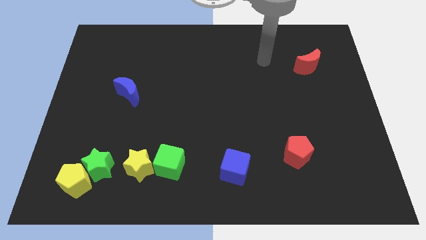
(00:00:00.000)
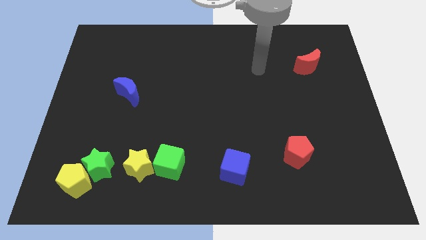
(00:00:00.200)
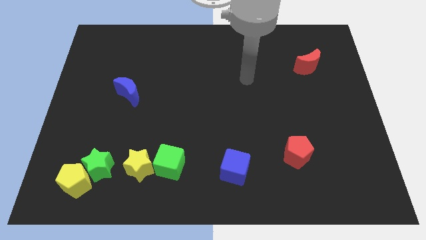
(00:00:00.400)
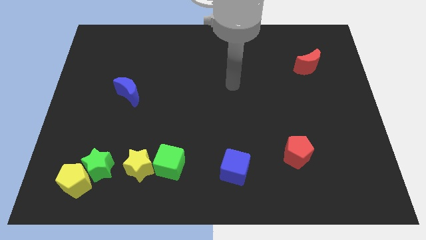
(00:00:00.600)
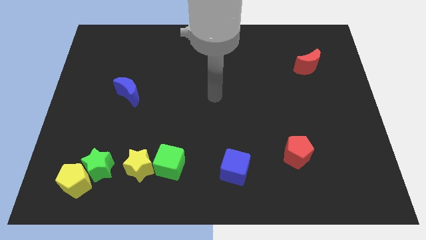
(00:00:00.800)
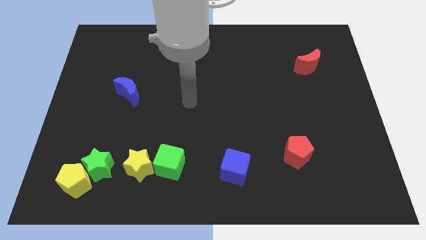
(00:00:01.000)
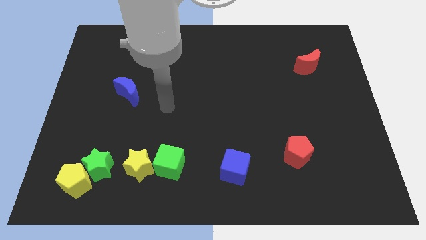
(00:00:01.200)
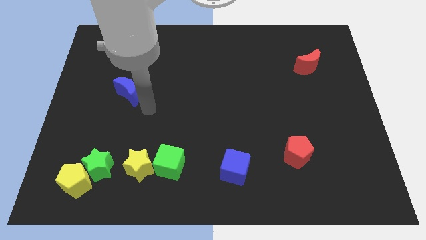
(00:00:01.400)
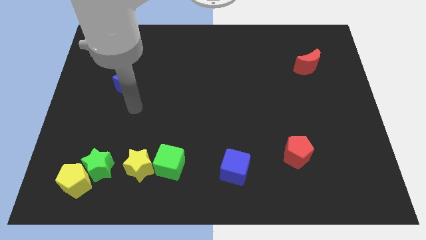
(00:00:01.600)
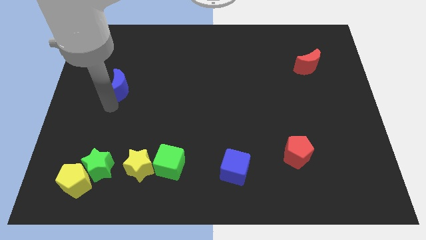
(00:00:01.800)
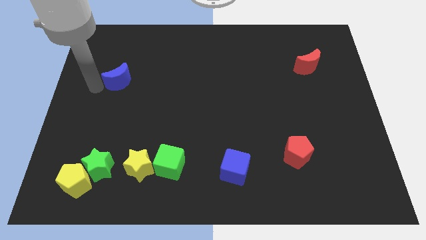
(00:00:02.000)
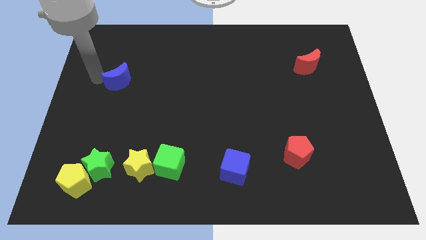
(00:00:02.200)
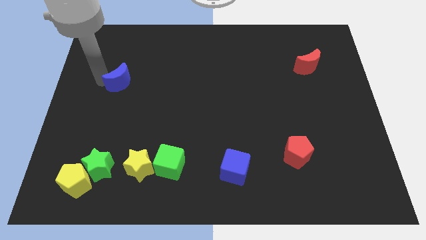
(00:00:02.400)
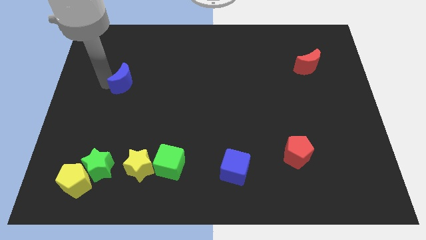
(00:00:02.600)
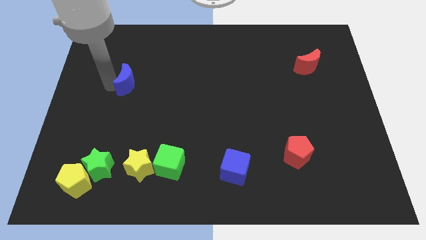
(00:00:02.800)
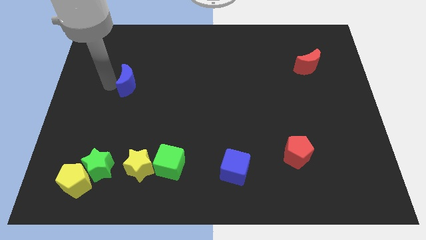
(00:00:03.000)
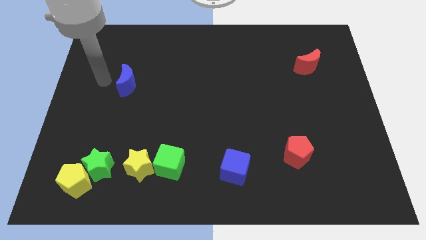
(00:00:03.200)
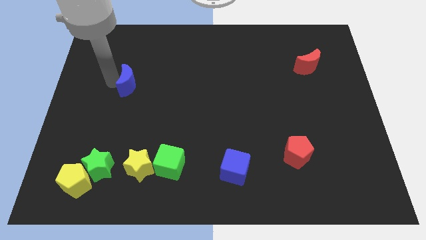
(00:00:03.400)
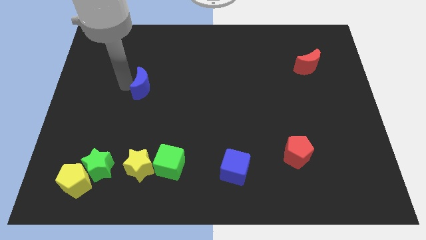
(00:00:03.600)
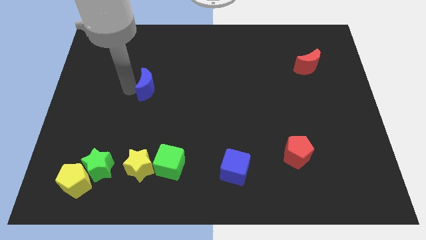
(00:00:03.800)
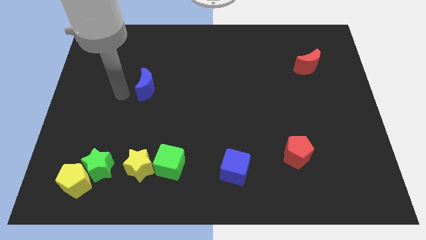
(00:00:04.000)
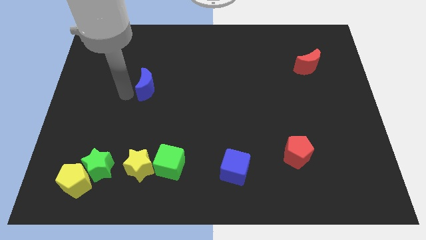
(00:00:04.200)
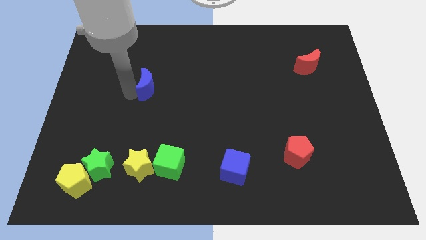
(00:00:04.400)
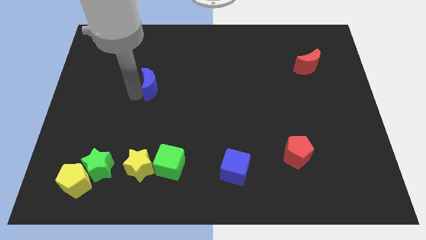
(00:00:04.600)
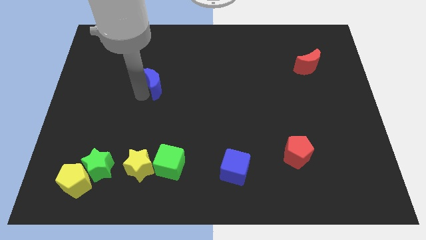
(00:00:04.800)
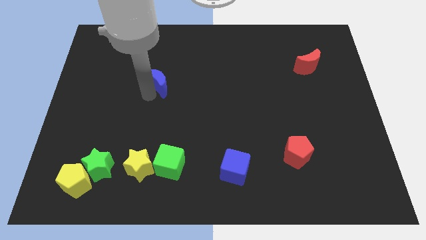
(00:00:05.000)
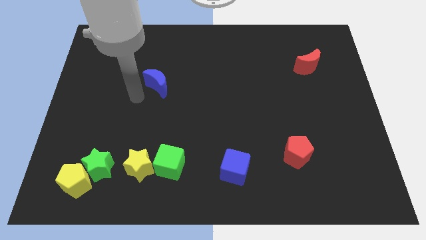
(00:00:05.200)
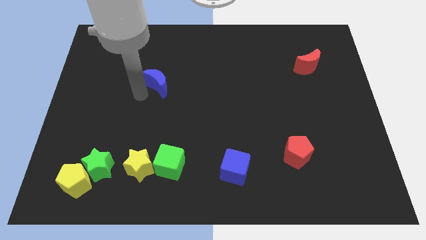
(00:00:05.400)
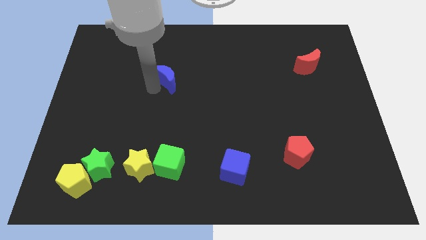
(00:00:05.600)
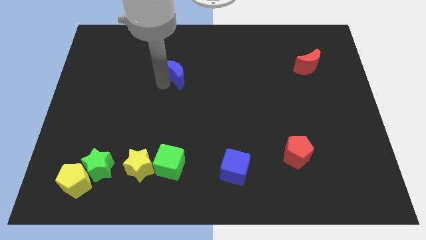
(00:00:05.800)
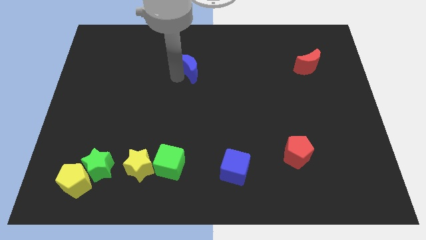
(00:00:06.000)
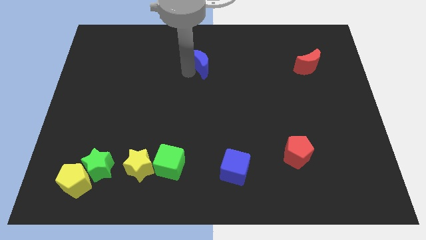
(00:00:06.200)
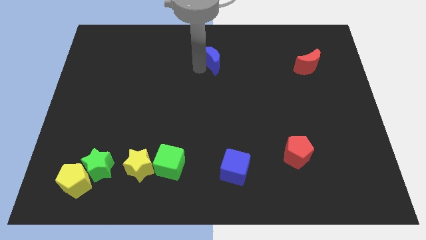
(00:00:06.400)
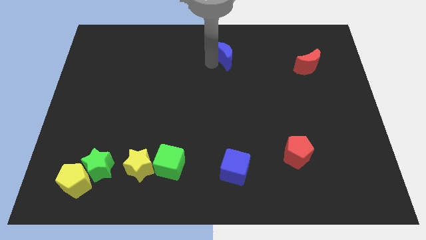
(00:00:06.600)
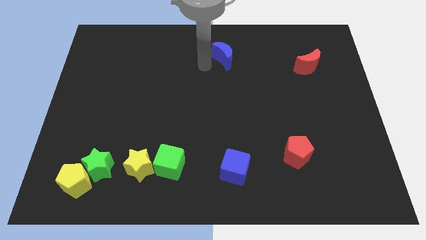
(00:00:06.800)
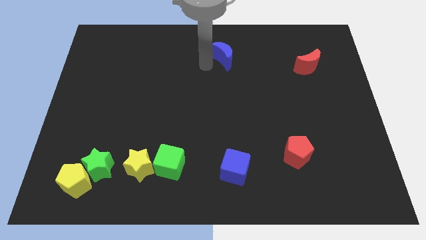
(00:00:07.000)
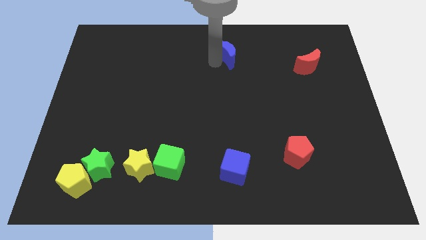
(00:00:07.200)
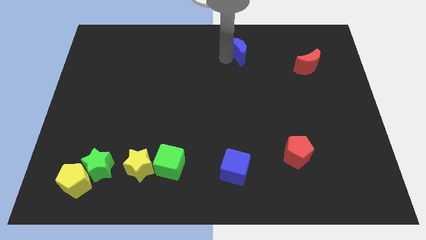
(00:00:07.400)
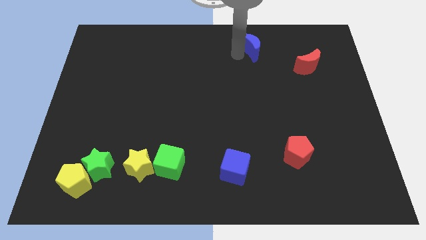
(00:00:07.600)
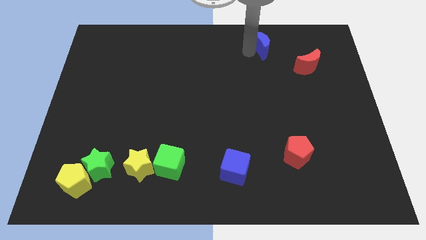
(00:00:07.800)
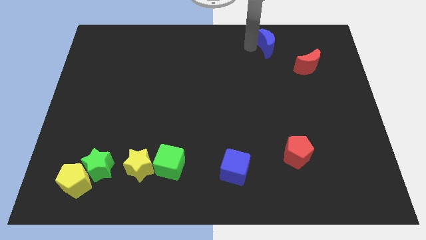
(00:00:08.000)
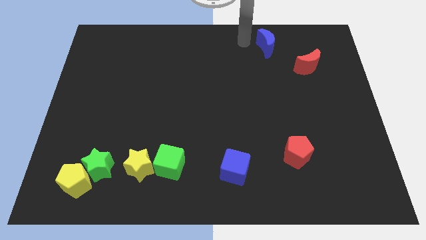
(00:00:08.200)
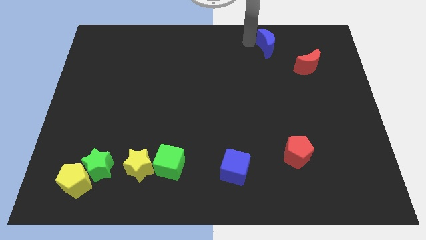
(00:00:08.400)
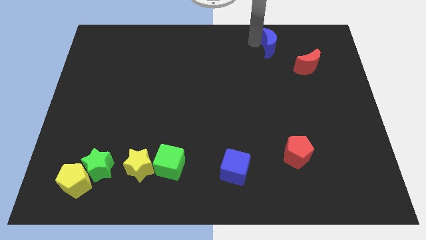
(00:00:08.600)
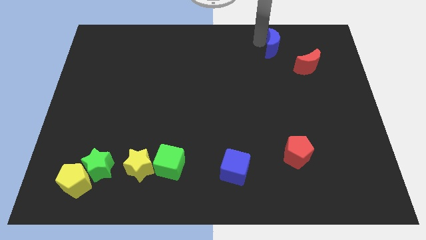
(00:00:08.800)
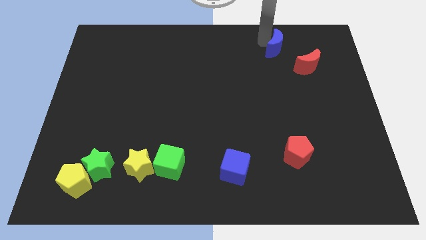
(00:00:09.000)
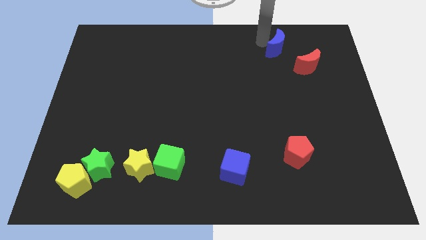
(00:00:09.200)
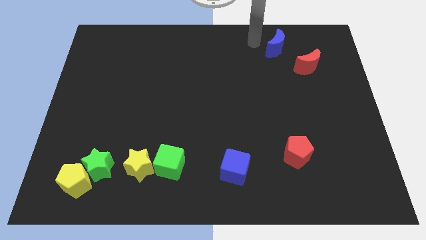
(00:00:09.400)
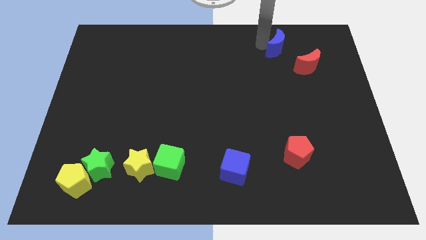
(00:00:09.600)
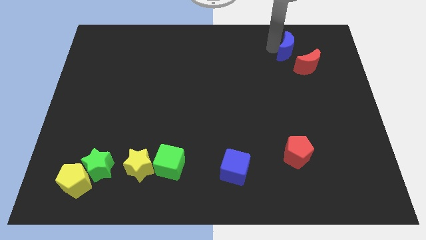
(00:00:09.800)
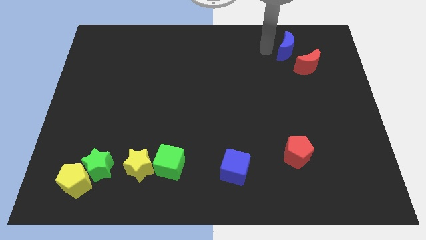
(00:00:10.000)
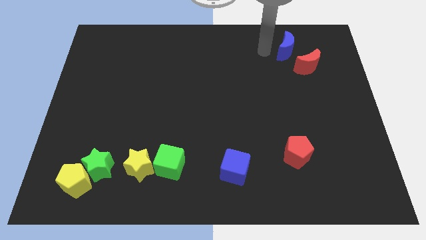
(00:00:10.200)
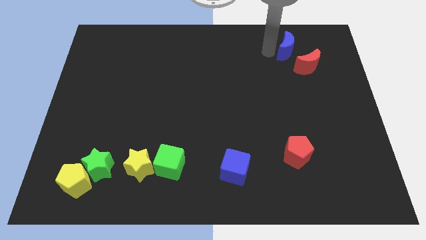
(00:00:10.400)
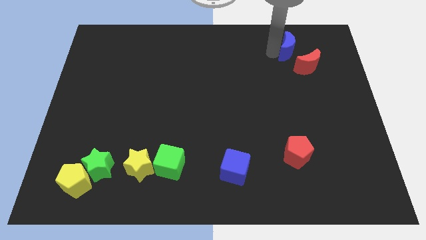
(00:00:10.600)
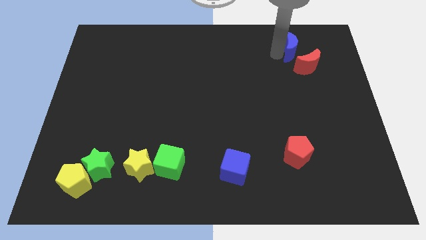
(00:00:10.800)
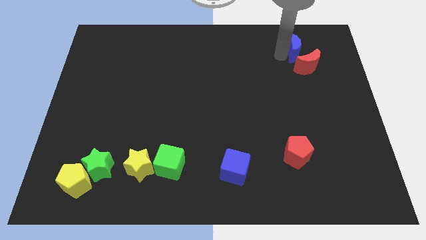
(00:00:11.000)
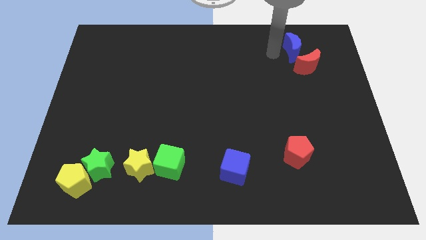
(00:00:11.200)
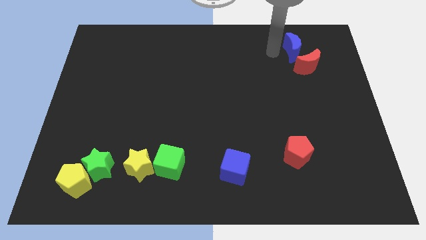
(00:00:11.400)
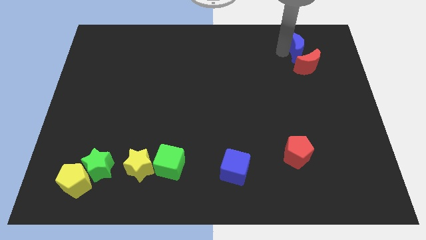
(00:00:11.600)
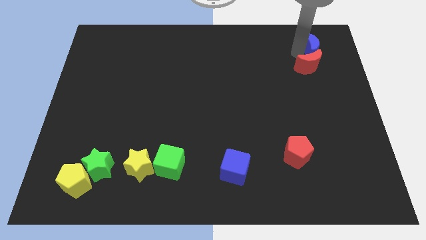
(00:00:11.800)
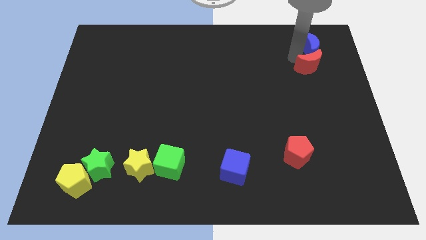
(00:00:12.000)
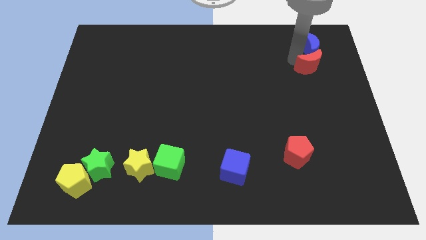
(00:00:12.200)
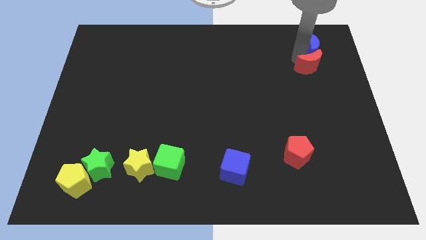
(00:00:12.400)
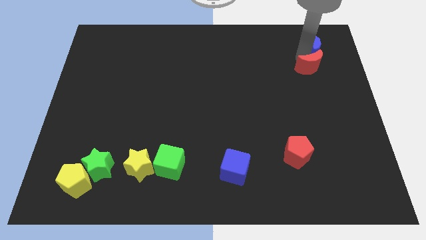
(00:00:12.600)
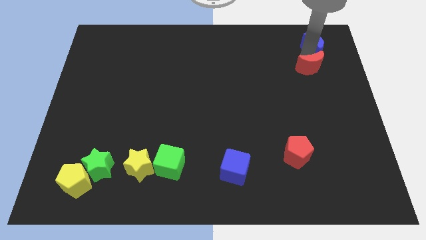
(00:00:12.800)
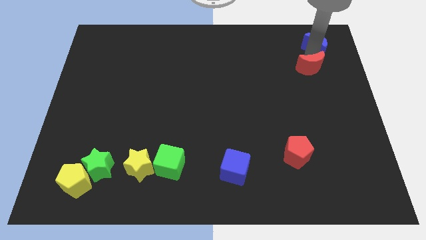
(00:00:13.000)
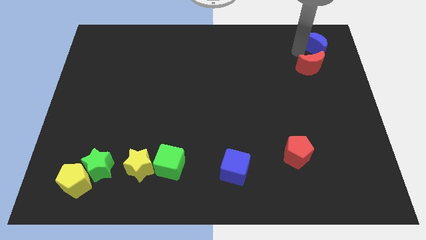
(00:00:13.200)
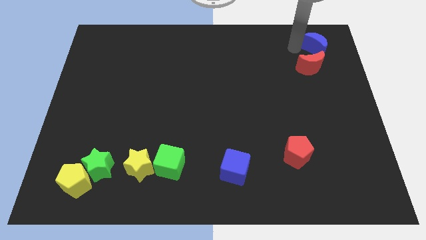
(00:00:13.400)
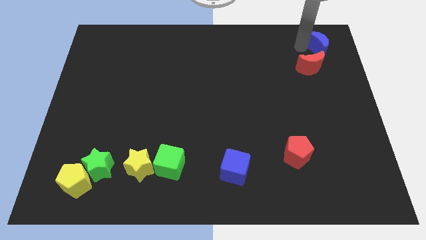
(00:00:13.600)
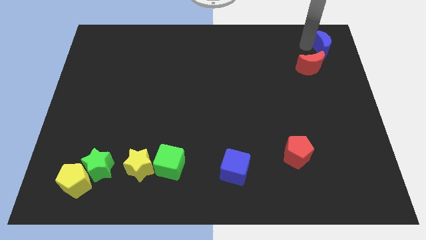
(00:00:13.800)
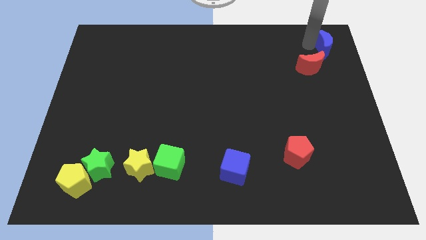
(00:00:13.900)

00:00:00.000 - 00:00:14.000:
put the blue moon to the top right corner
